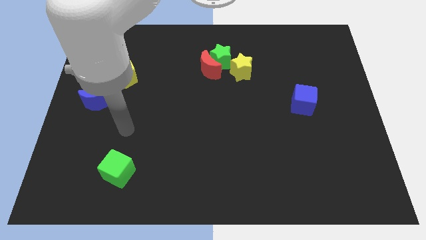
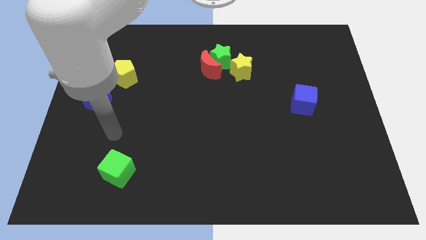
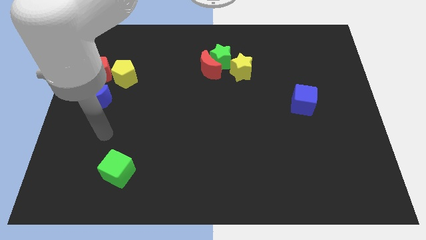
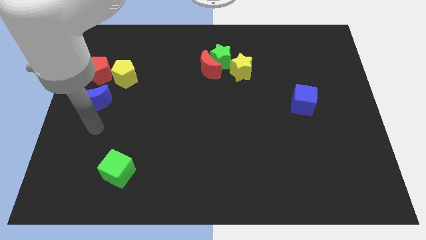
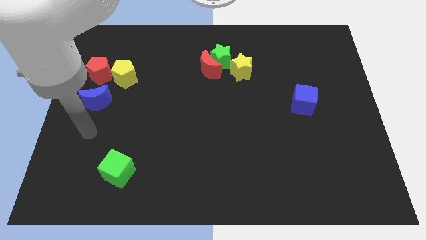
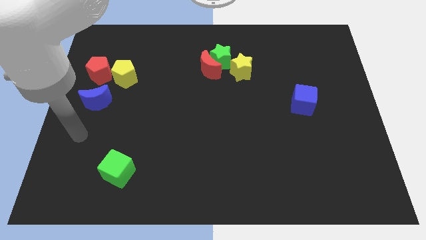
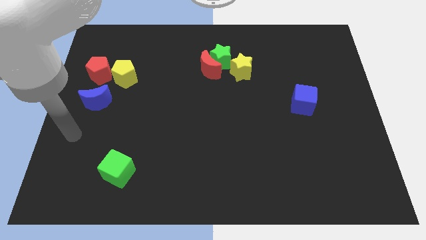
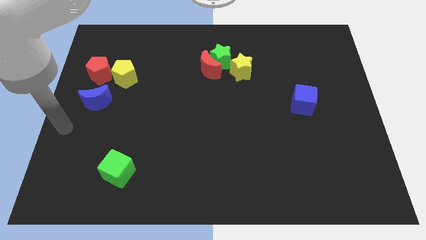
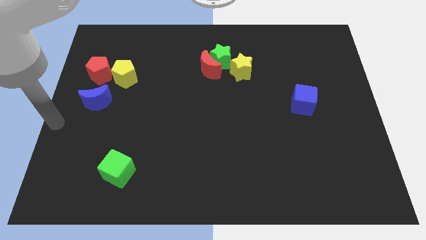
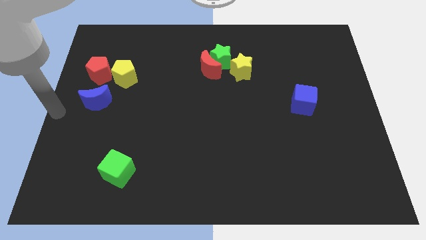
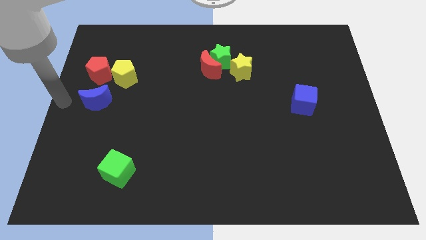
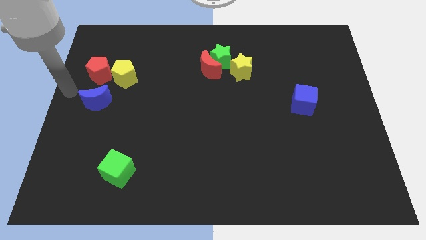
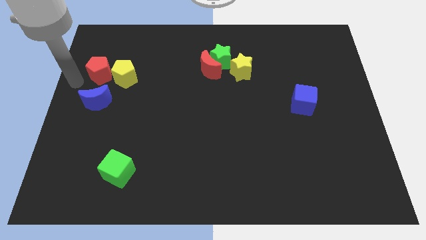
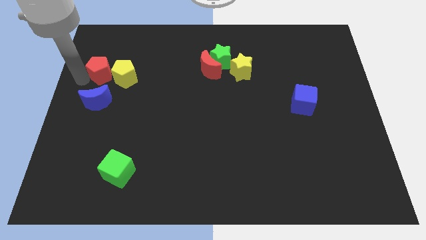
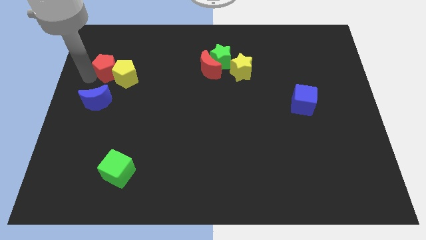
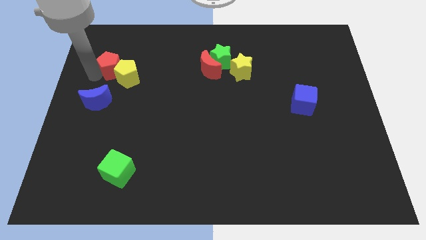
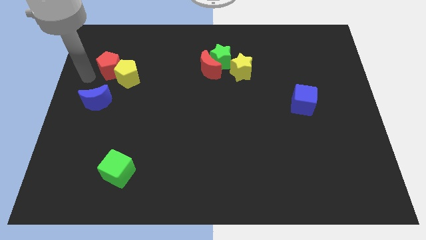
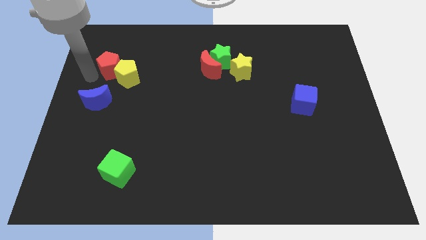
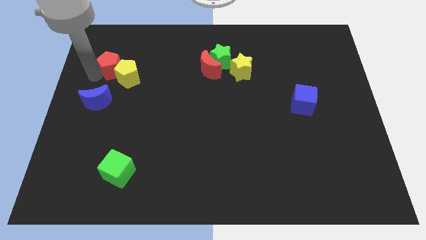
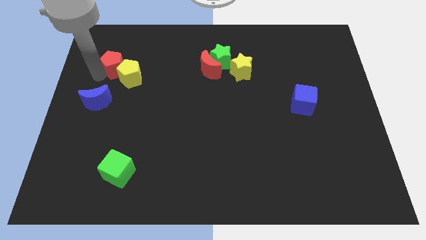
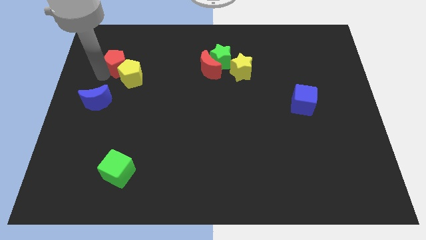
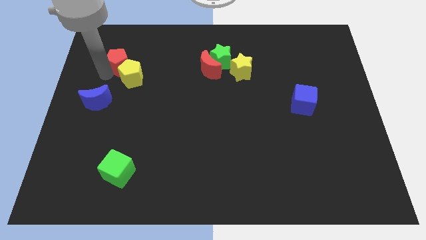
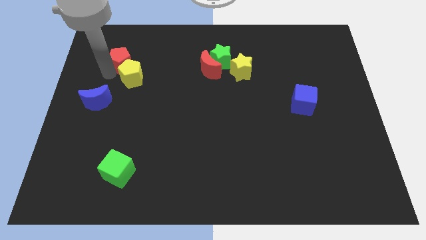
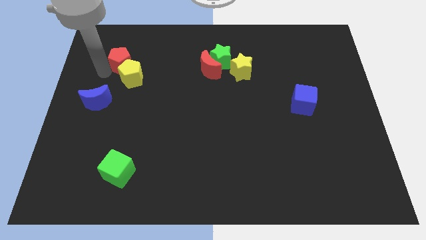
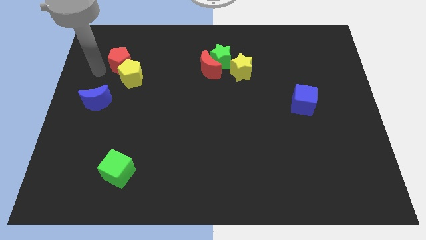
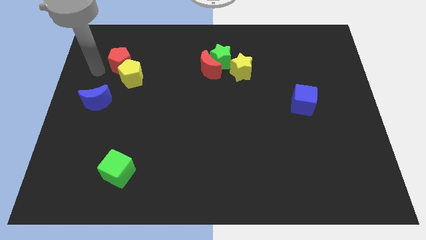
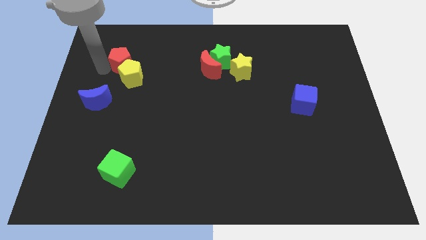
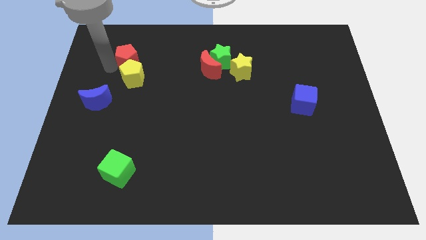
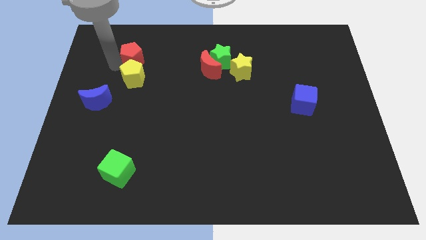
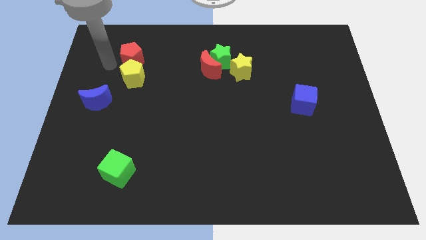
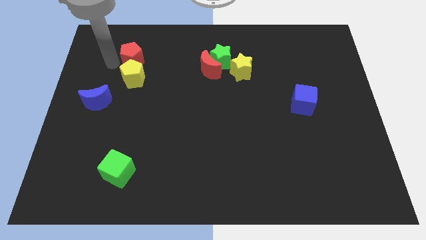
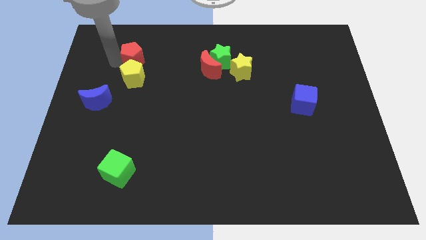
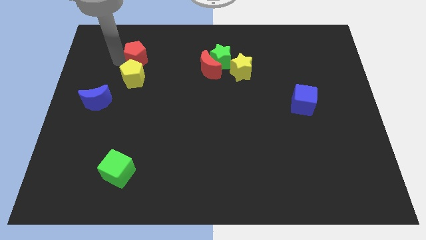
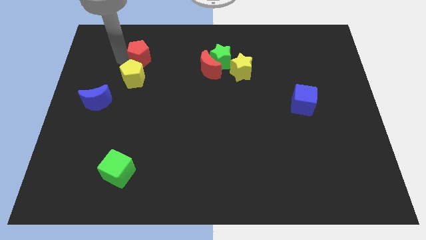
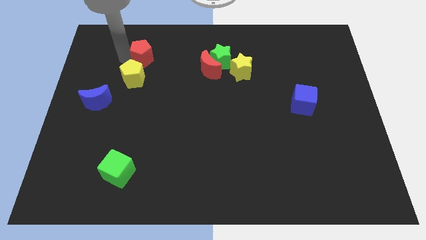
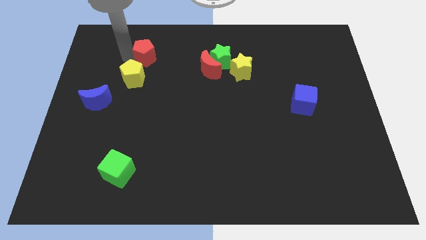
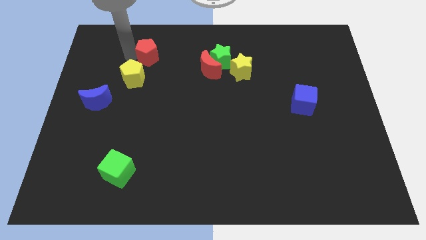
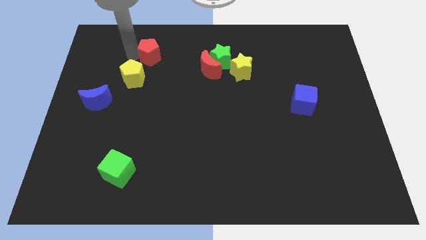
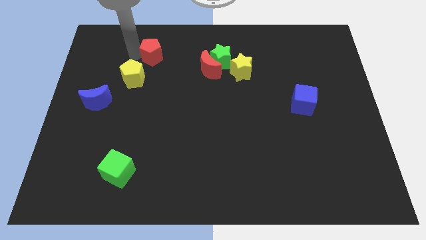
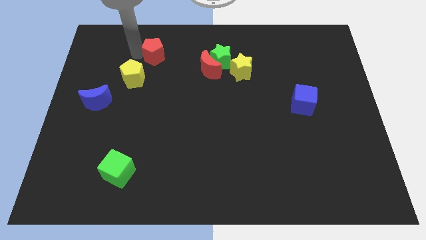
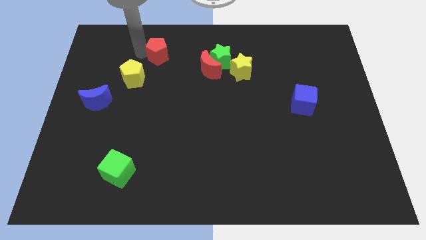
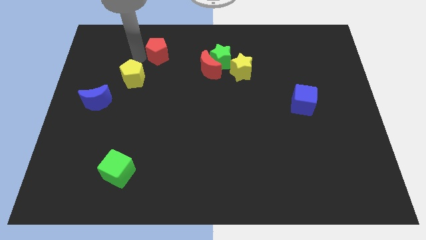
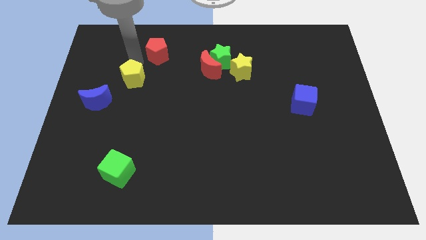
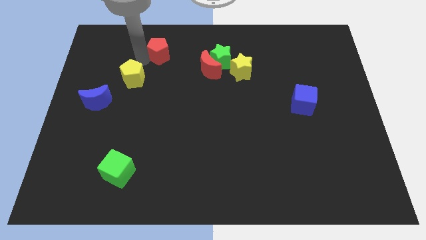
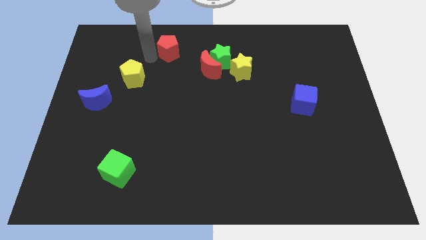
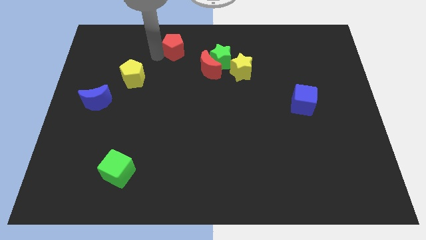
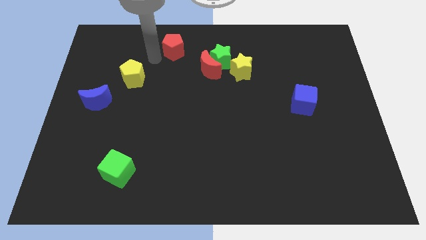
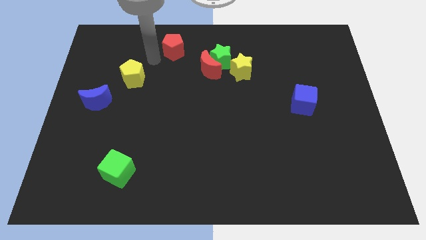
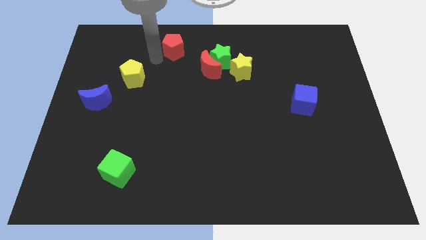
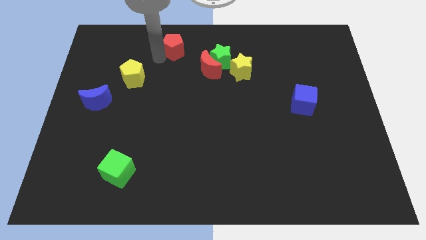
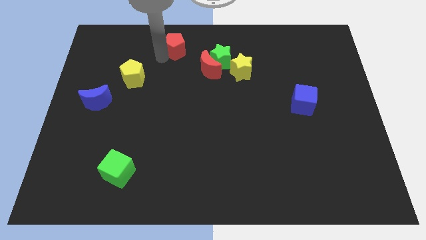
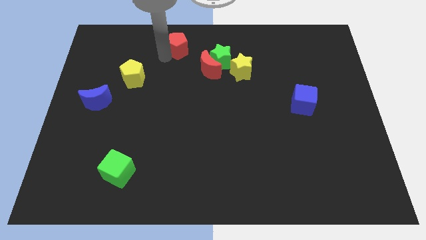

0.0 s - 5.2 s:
move the red pentagon to the top side

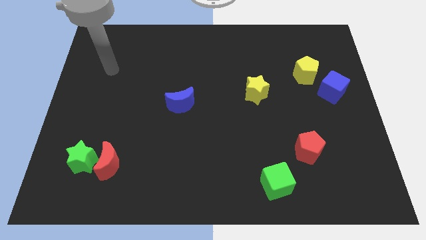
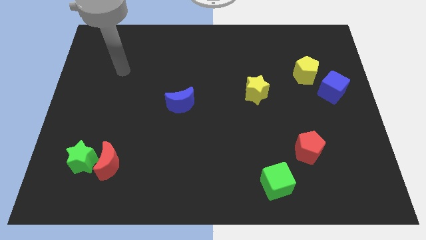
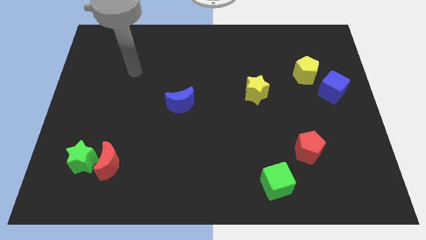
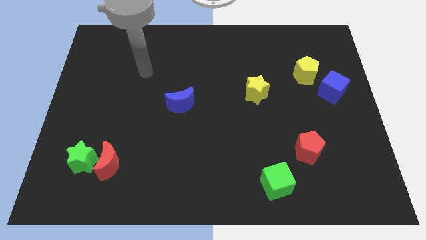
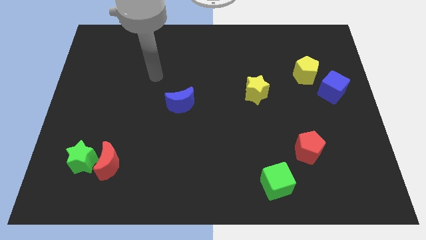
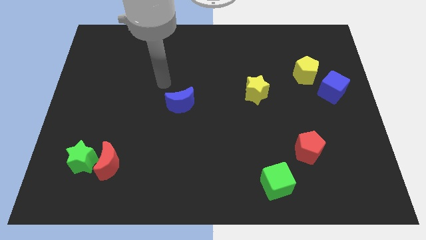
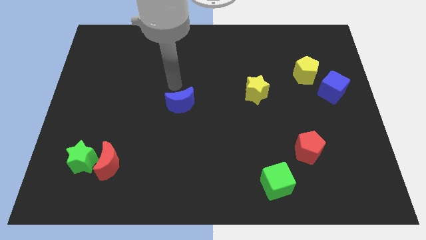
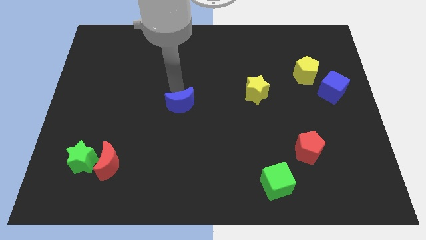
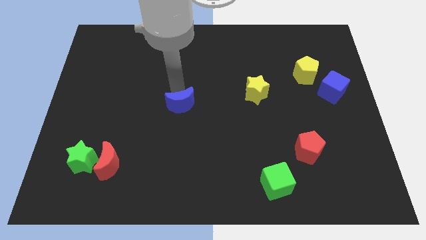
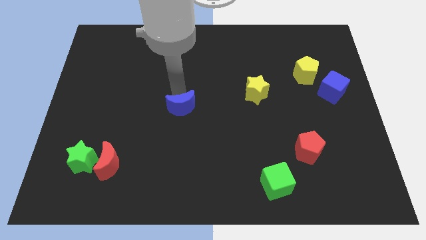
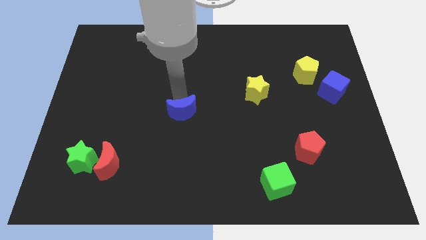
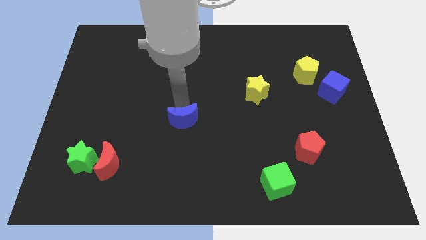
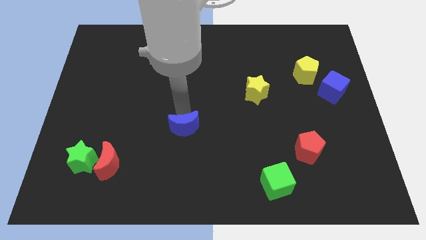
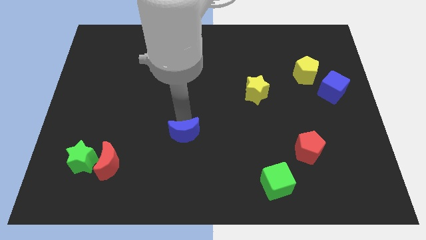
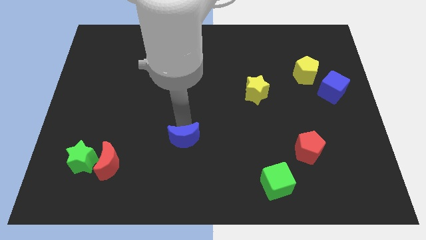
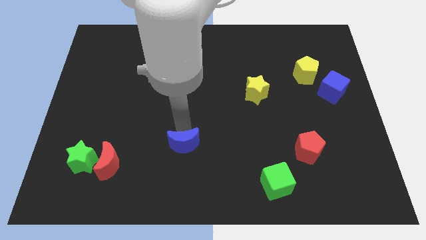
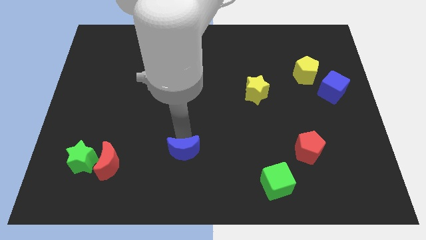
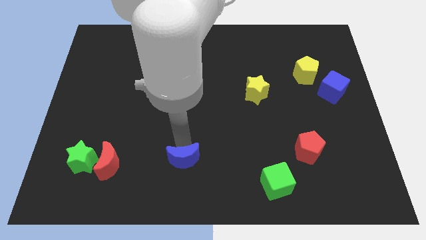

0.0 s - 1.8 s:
push the blue moon to the bottom side
